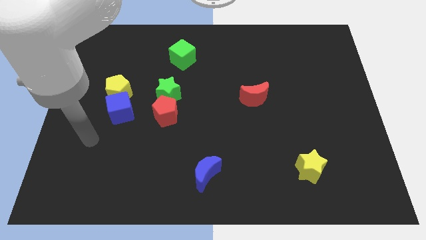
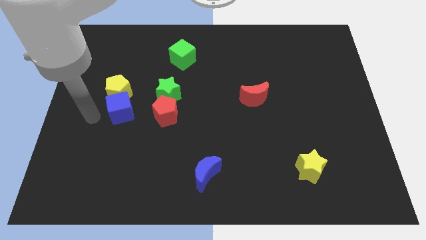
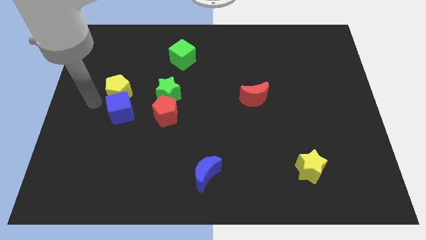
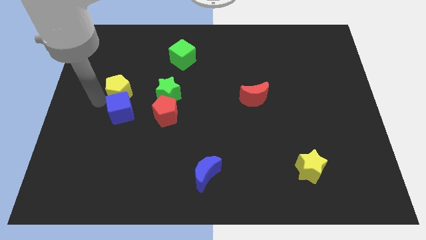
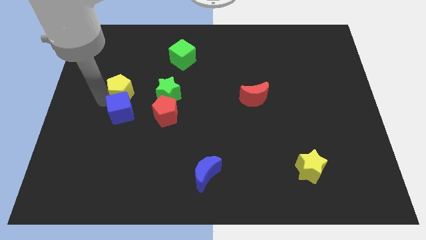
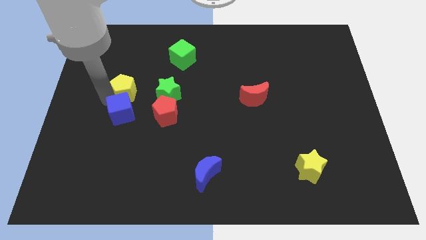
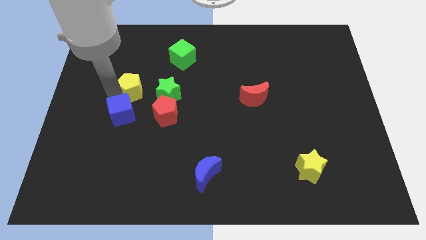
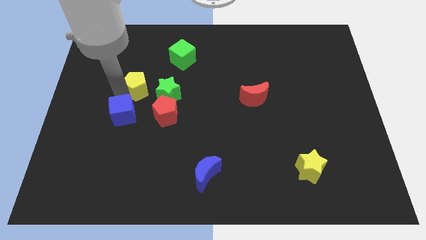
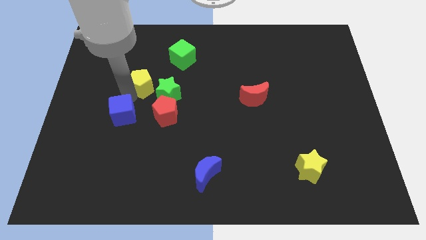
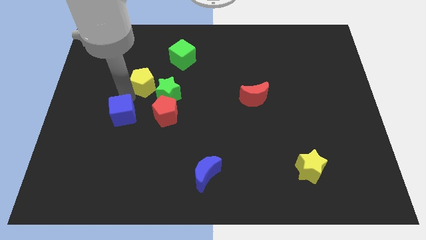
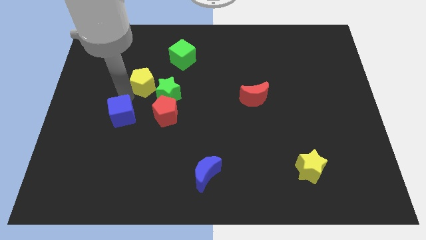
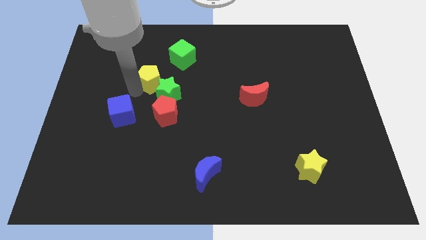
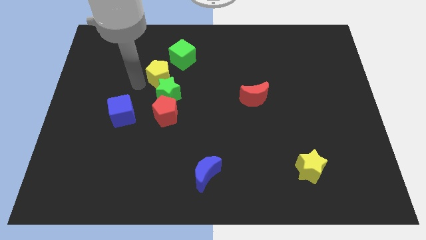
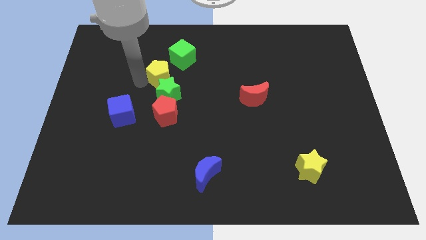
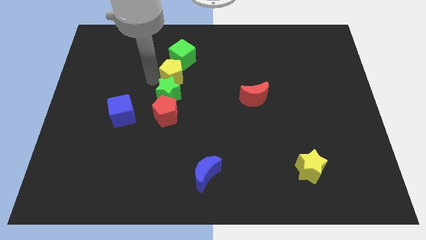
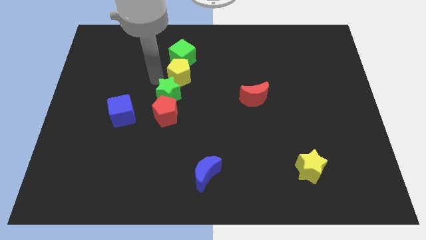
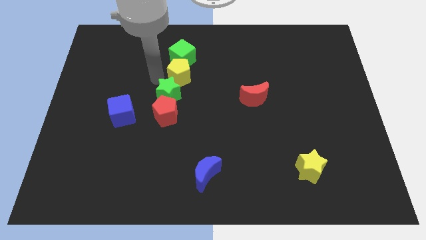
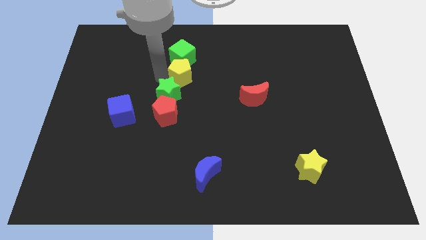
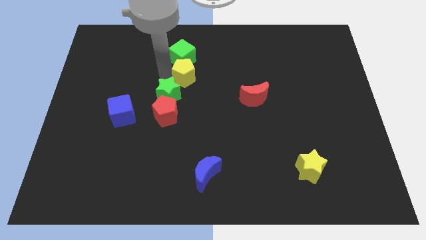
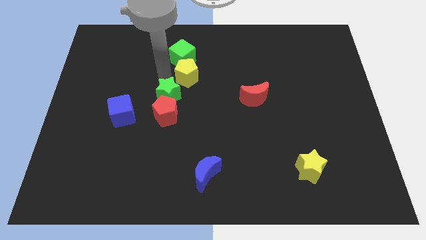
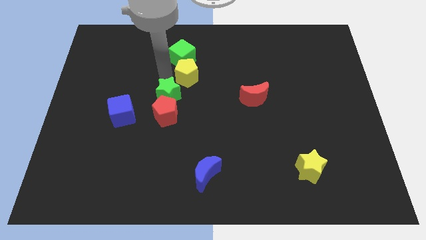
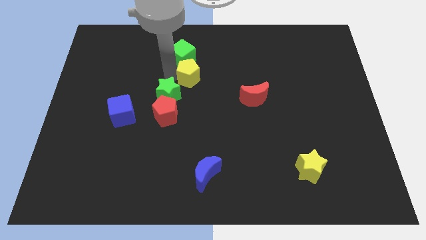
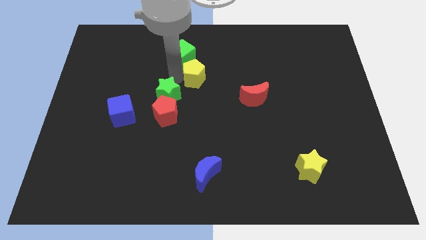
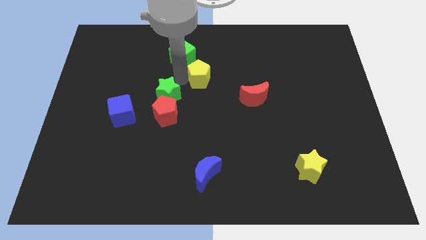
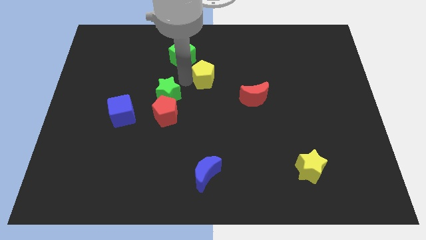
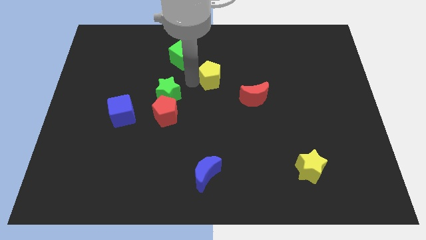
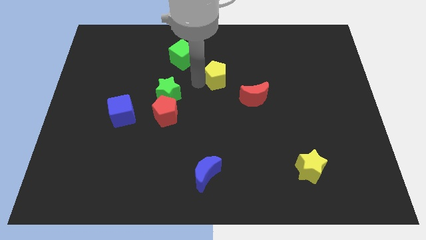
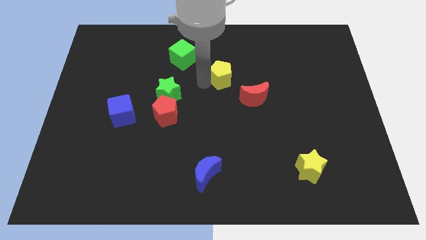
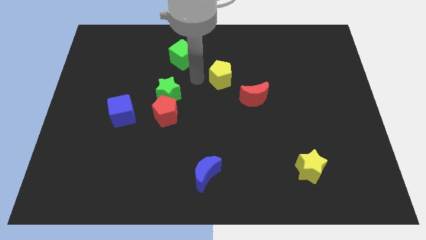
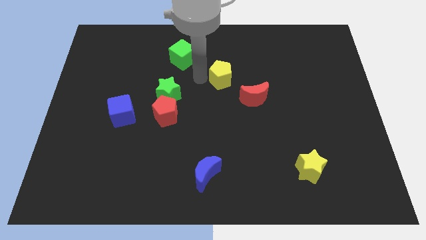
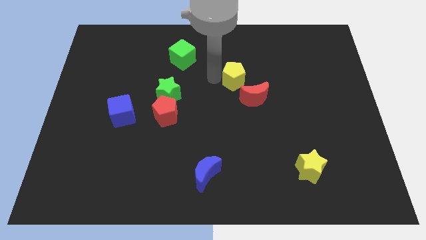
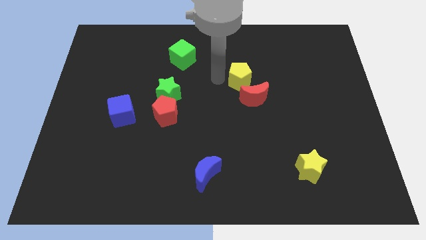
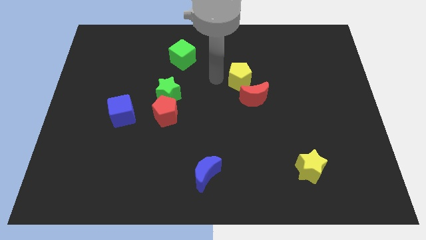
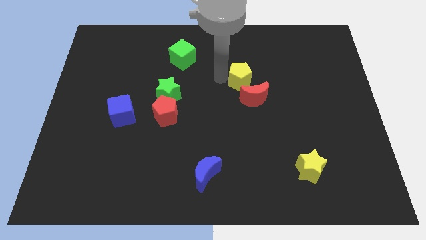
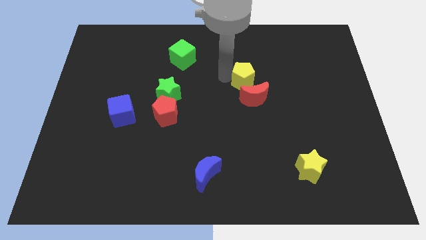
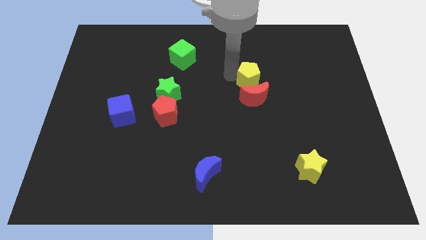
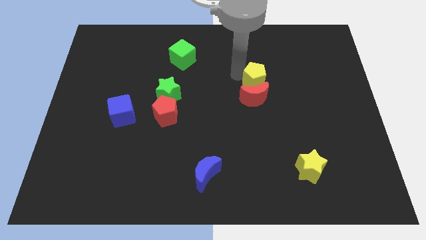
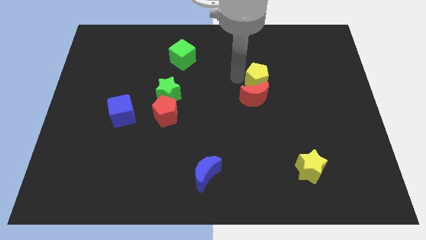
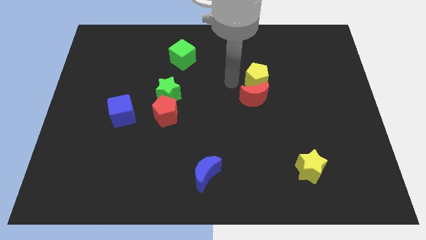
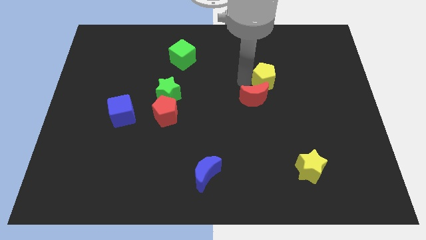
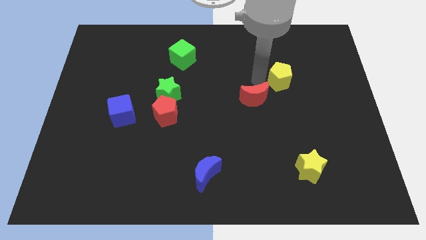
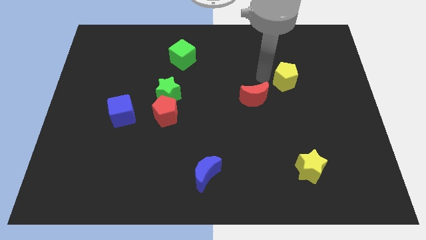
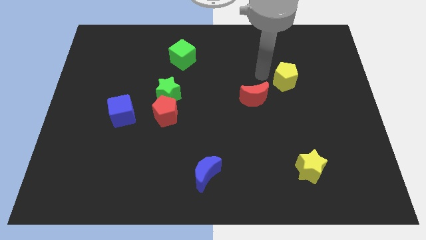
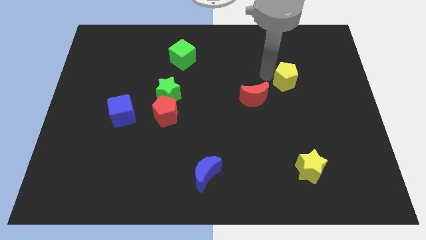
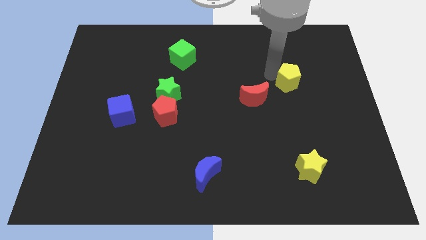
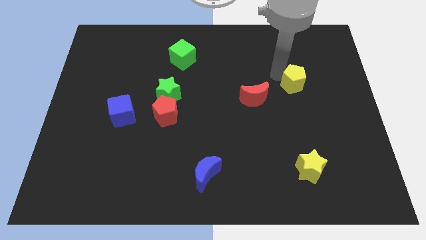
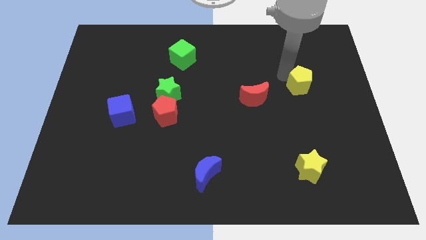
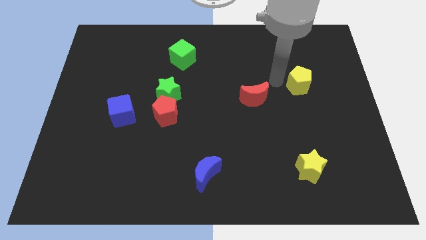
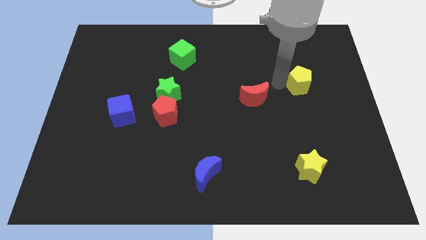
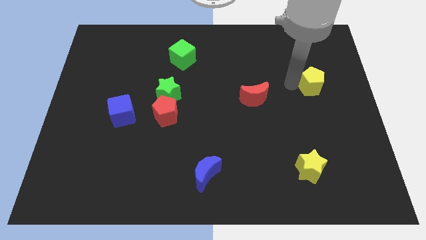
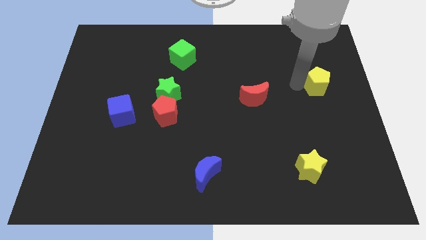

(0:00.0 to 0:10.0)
move the yellow pentagon to the right side of the board

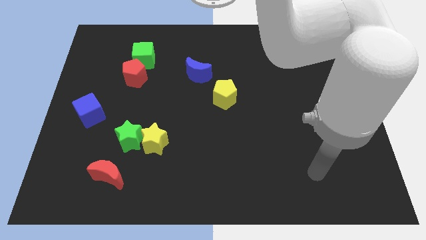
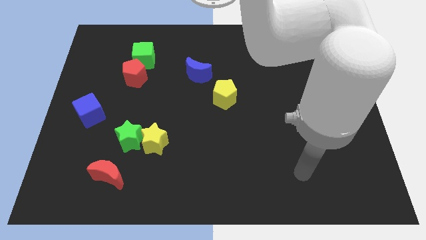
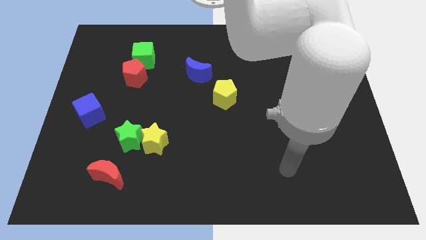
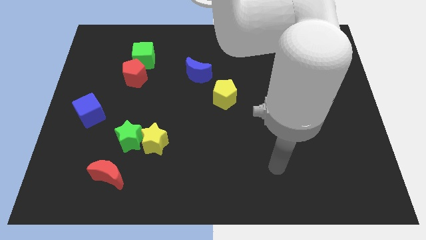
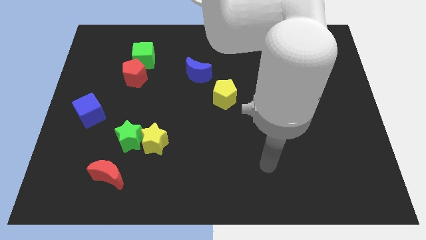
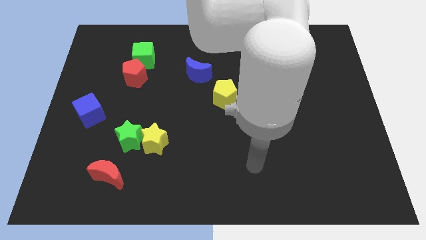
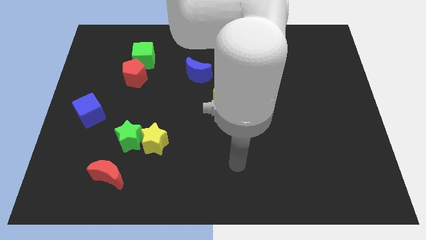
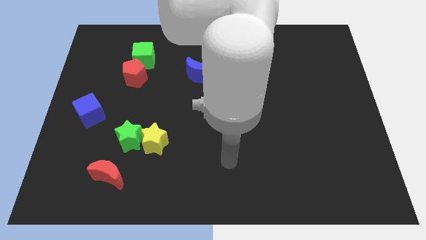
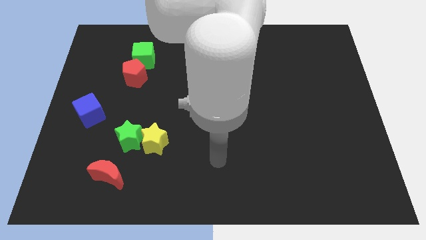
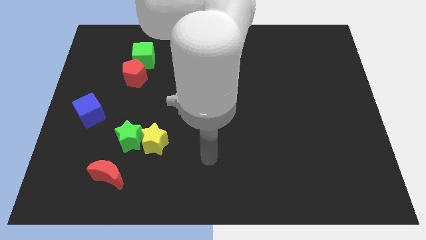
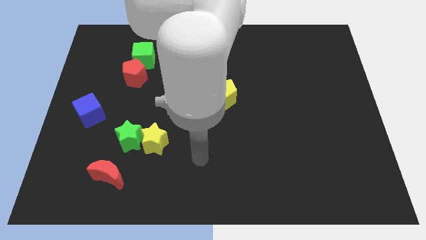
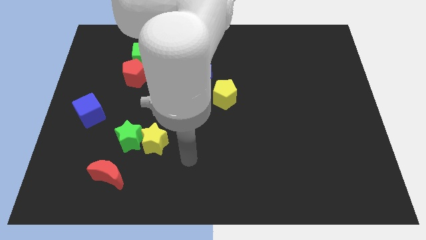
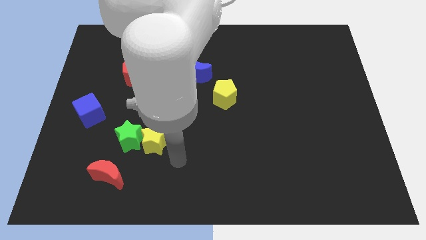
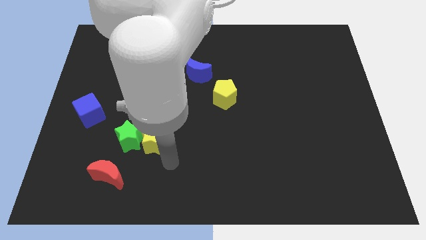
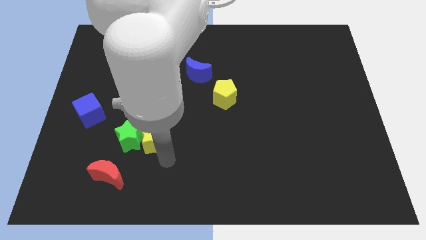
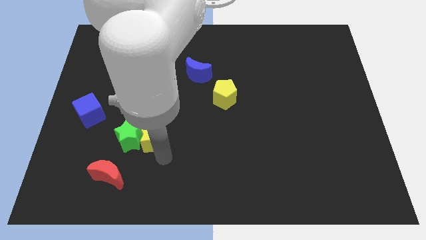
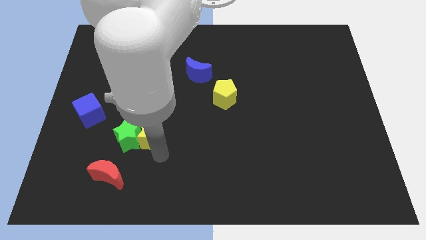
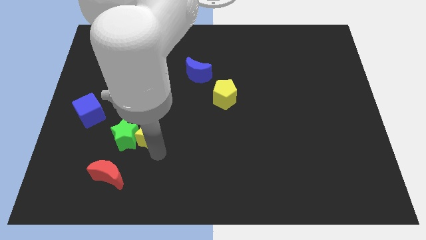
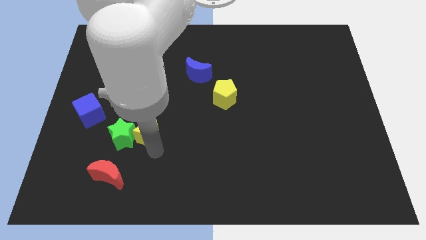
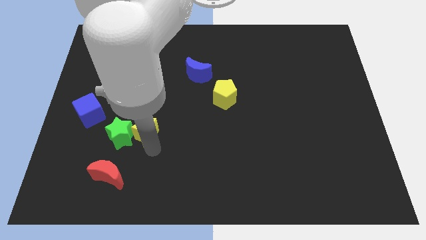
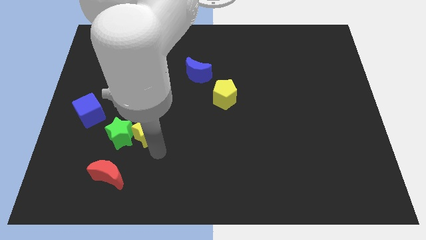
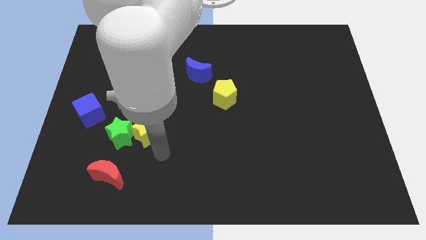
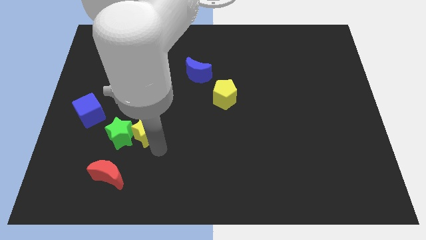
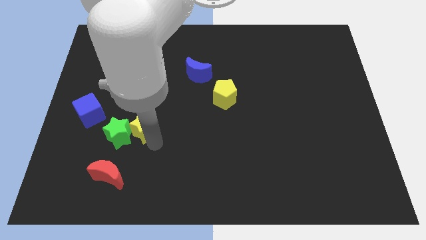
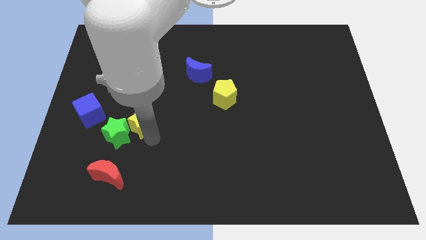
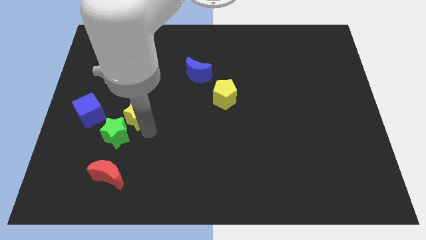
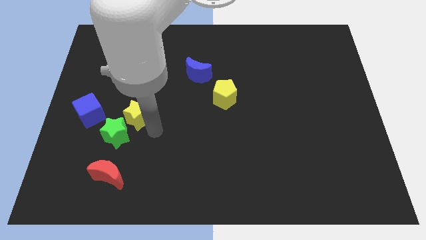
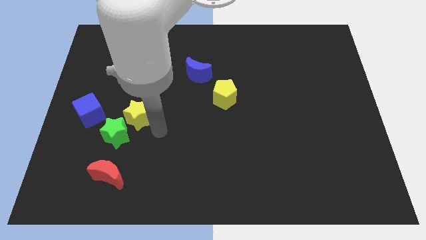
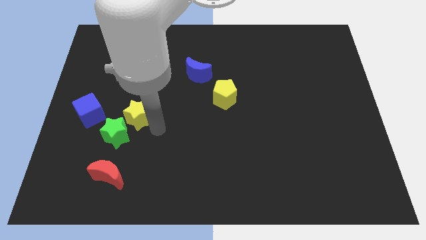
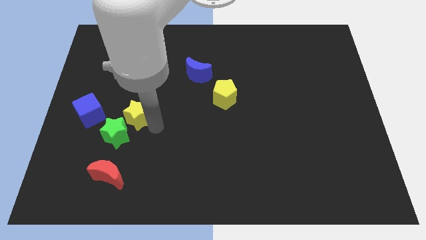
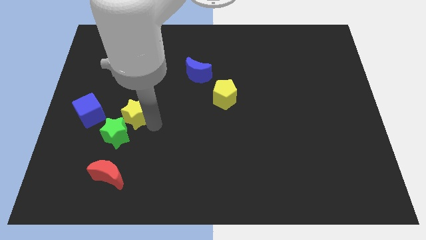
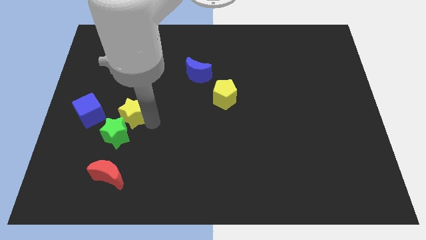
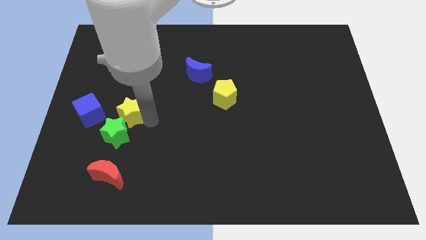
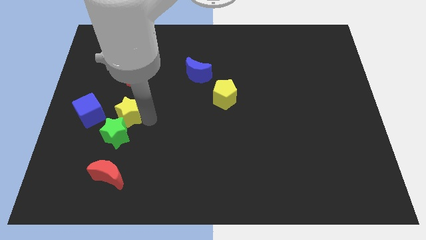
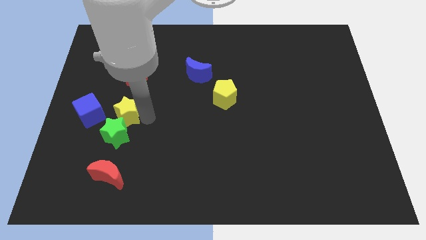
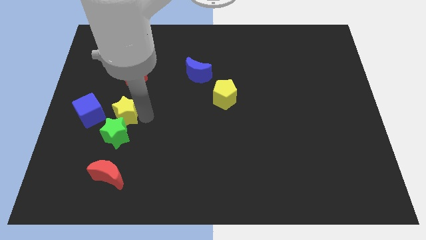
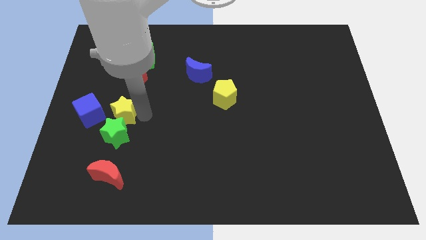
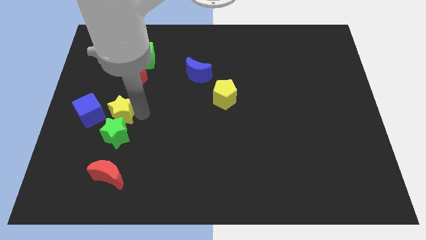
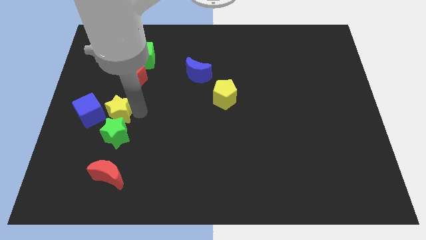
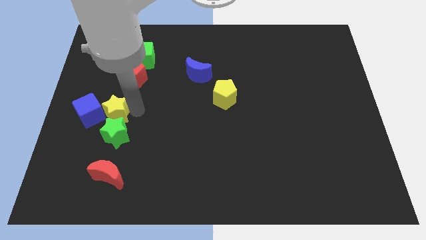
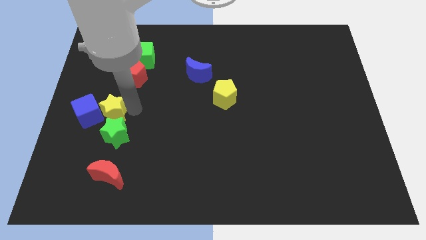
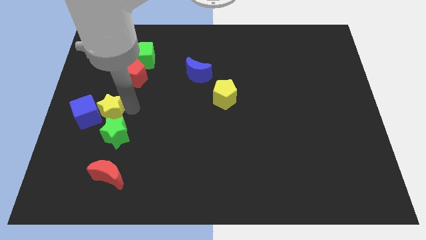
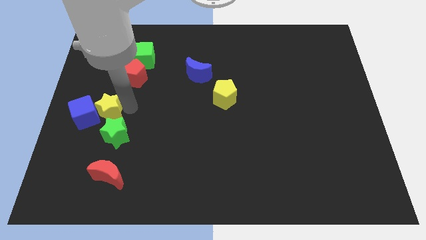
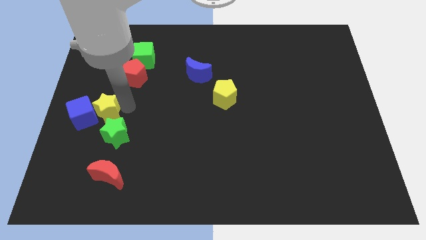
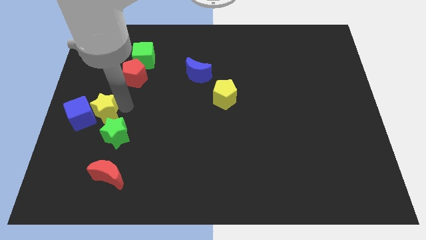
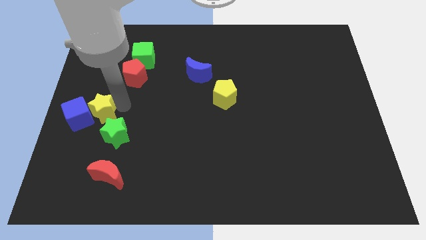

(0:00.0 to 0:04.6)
push the yellow star to the left side of the board
